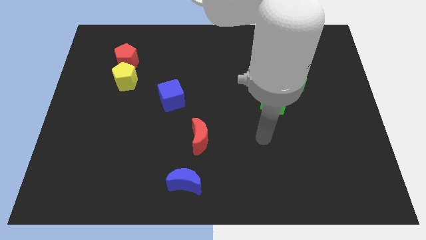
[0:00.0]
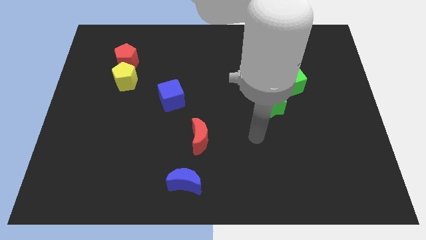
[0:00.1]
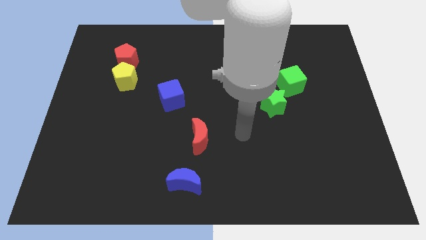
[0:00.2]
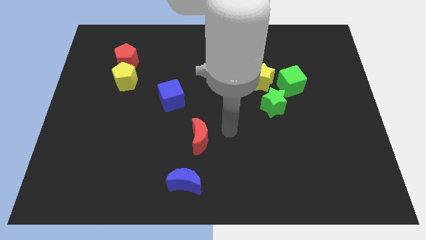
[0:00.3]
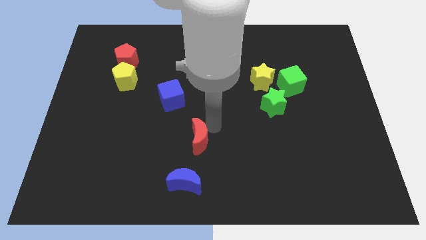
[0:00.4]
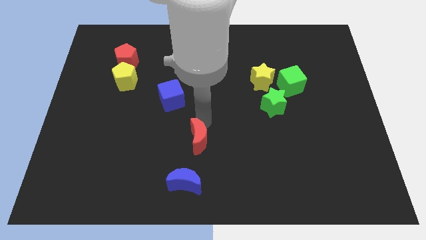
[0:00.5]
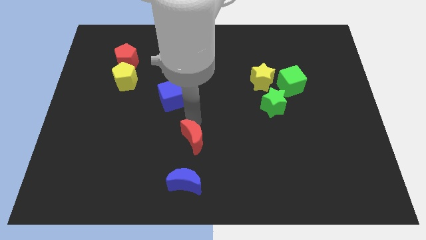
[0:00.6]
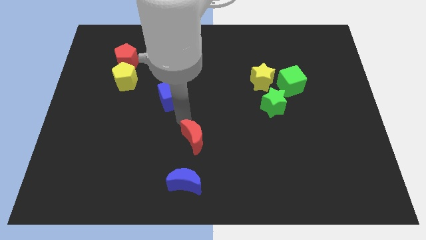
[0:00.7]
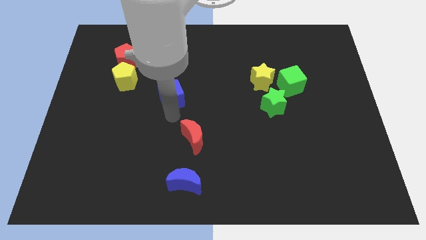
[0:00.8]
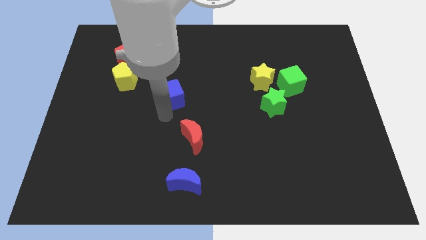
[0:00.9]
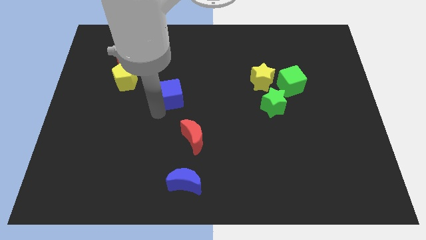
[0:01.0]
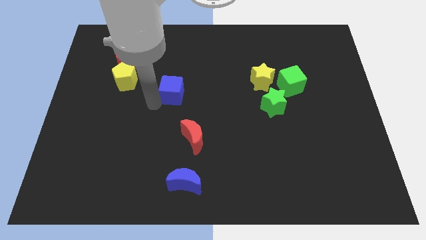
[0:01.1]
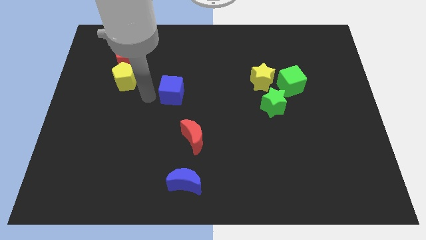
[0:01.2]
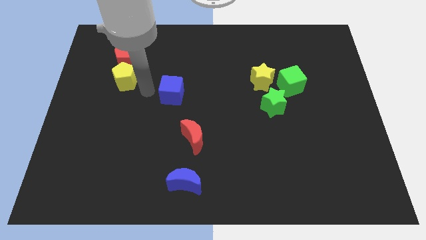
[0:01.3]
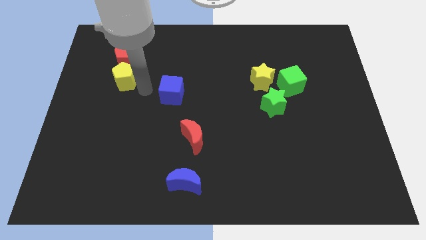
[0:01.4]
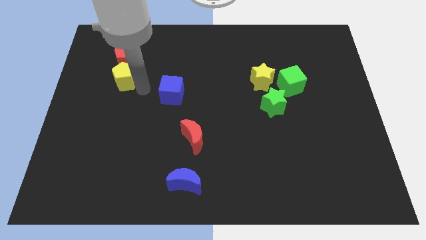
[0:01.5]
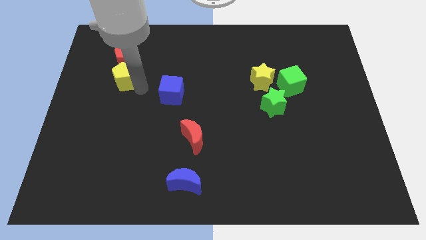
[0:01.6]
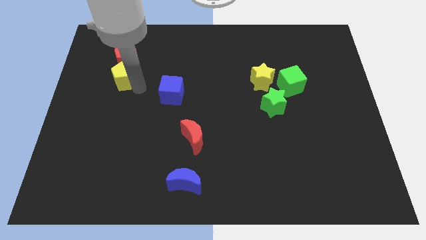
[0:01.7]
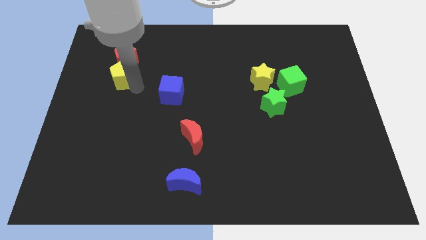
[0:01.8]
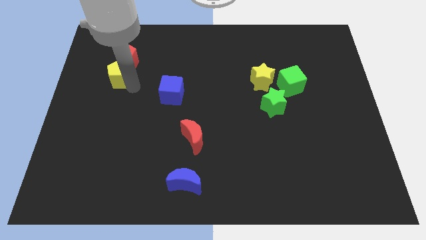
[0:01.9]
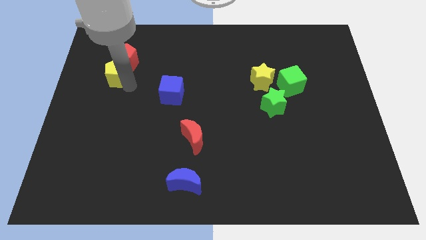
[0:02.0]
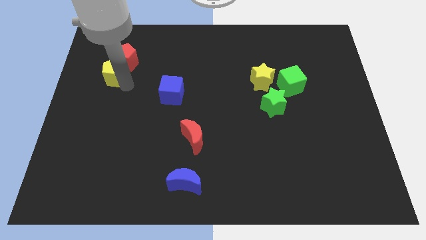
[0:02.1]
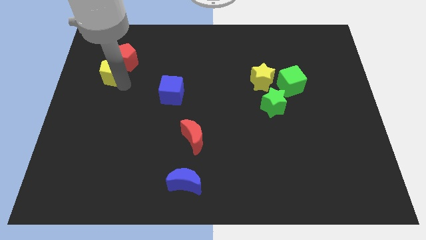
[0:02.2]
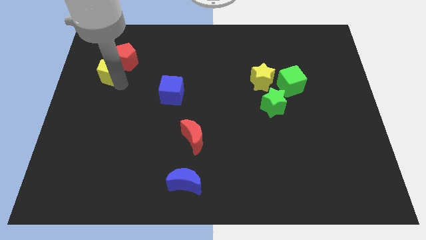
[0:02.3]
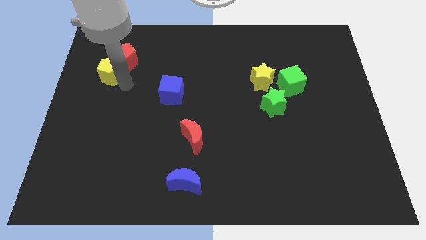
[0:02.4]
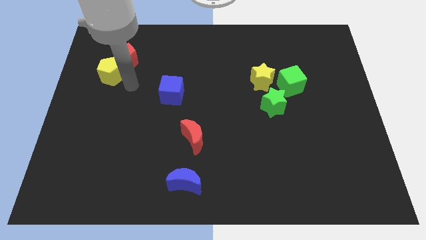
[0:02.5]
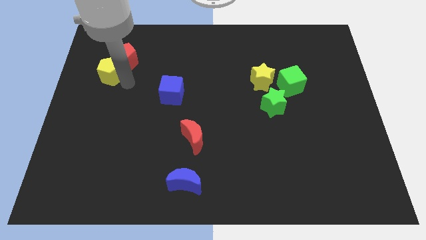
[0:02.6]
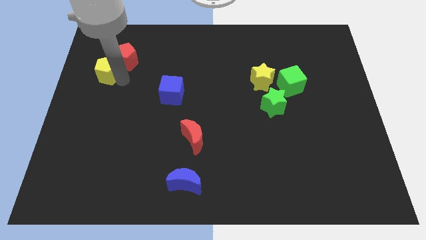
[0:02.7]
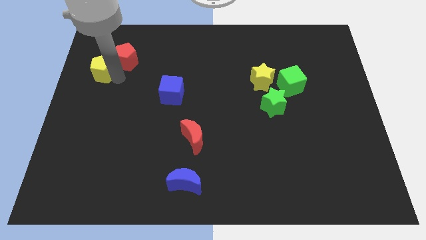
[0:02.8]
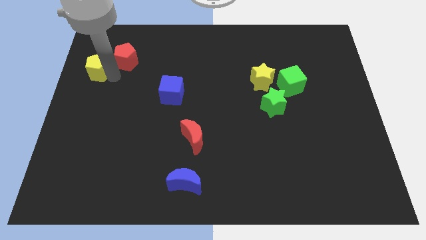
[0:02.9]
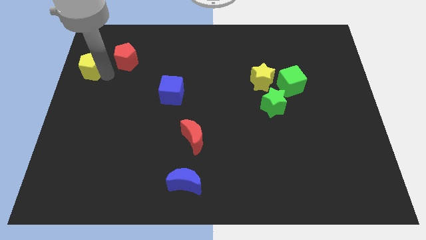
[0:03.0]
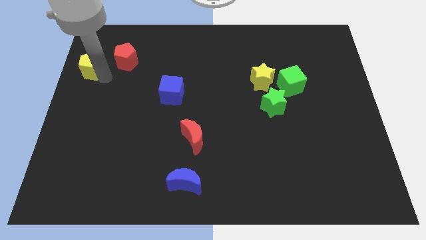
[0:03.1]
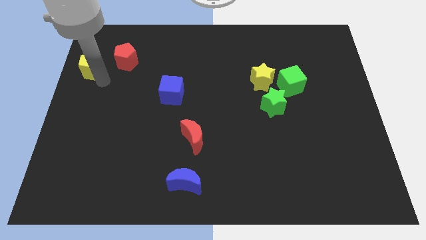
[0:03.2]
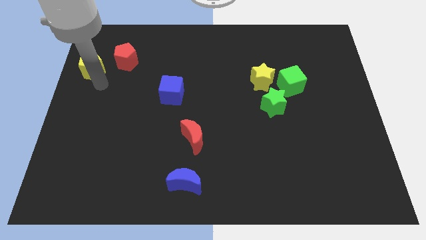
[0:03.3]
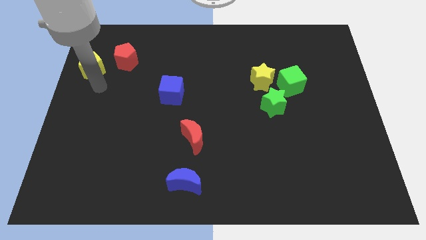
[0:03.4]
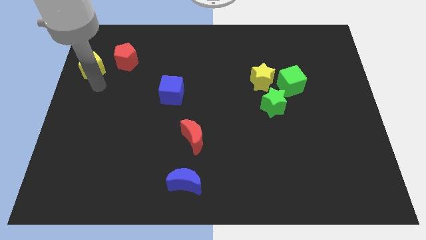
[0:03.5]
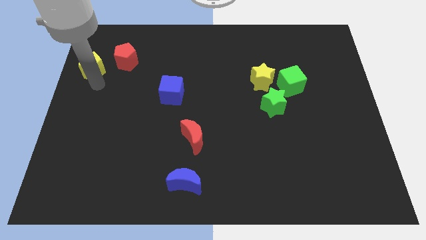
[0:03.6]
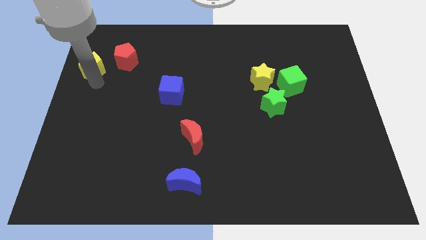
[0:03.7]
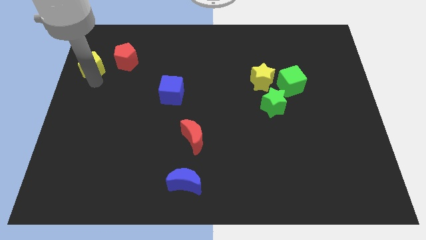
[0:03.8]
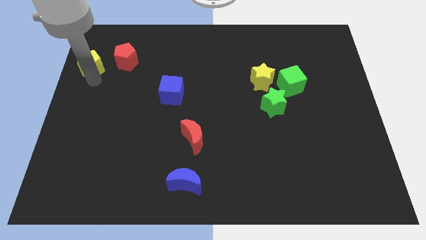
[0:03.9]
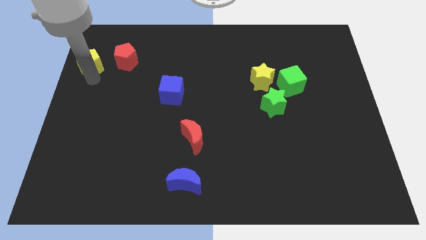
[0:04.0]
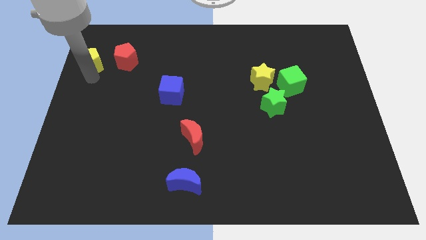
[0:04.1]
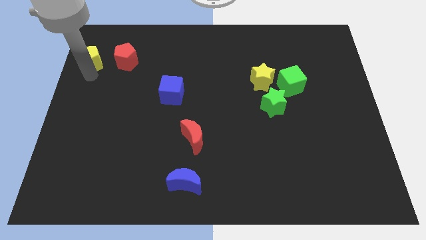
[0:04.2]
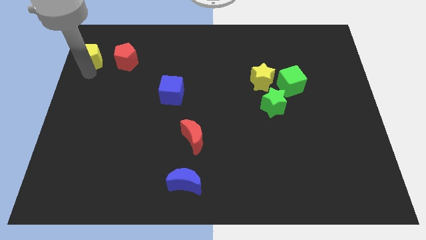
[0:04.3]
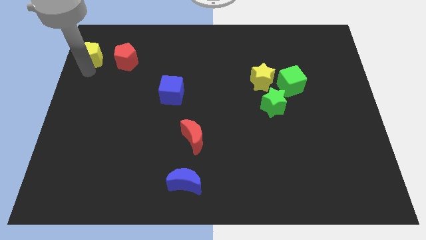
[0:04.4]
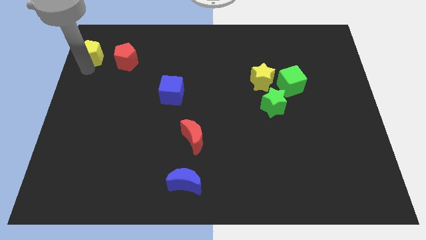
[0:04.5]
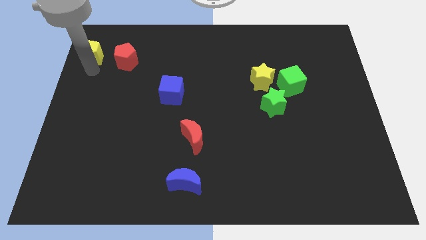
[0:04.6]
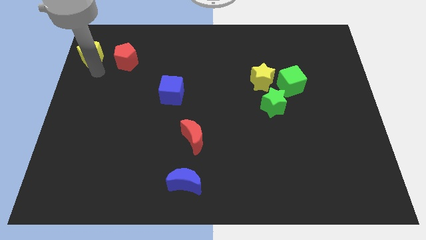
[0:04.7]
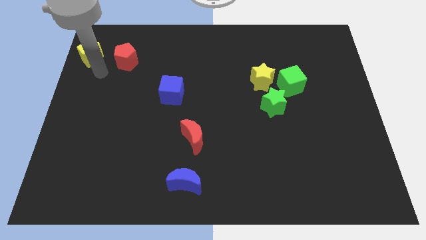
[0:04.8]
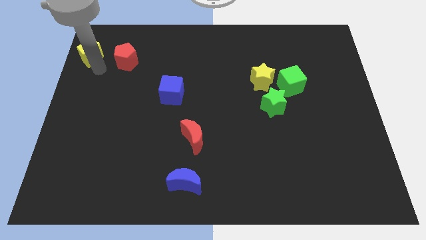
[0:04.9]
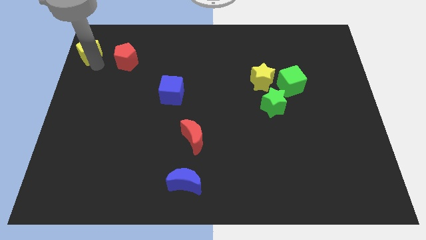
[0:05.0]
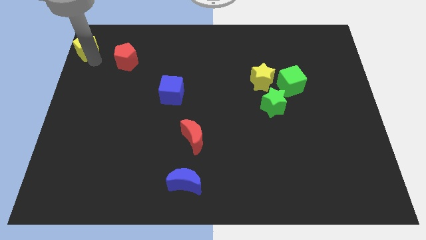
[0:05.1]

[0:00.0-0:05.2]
put the yellow pentagon to the top left corner

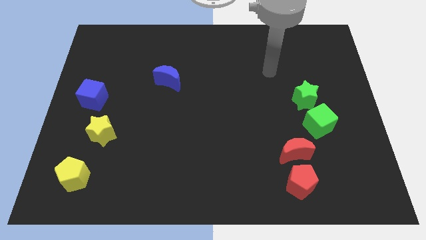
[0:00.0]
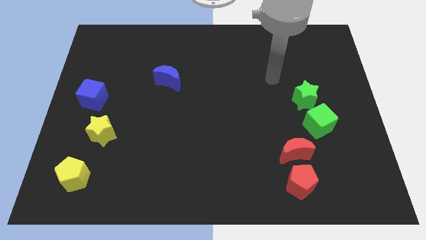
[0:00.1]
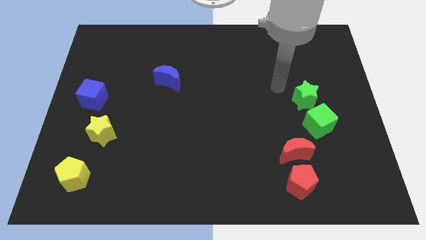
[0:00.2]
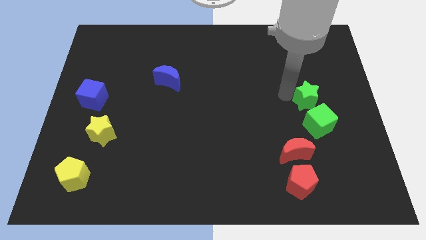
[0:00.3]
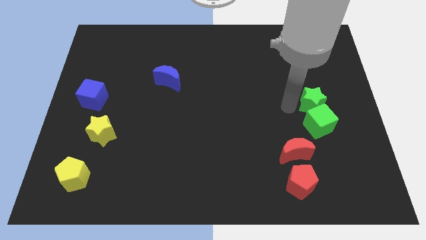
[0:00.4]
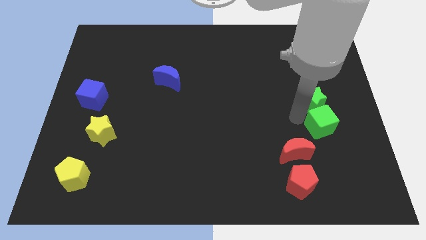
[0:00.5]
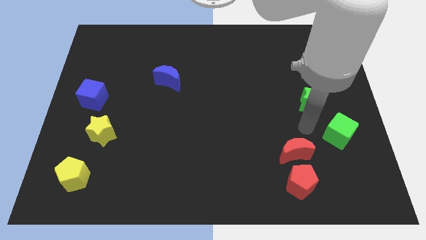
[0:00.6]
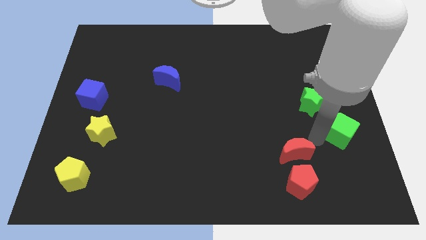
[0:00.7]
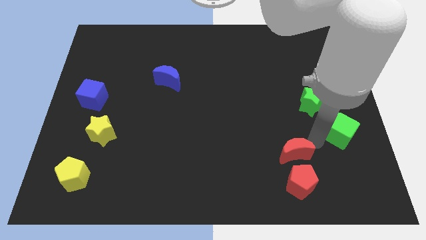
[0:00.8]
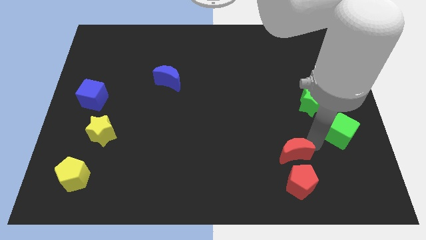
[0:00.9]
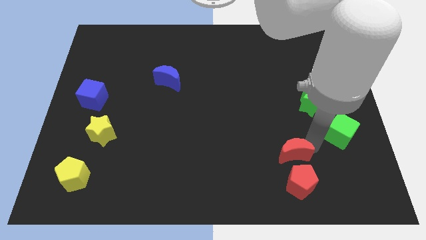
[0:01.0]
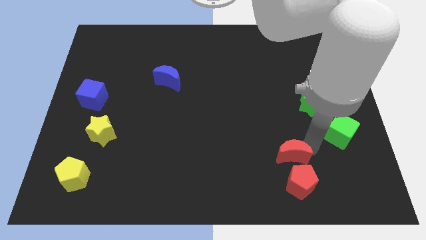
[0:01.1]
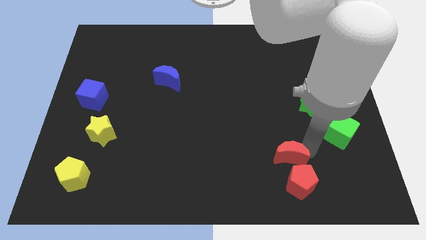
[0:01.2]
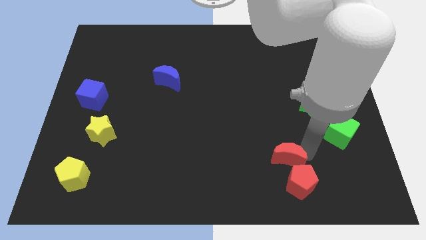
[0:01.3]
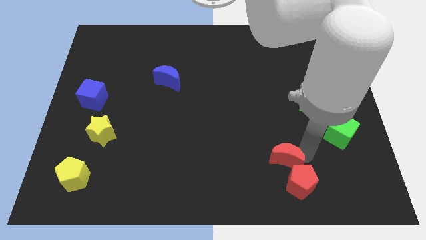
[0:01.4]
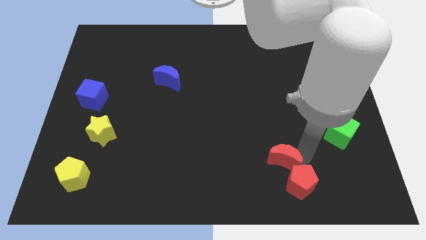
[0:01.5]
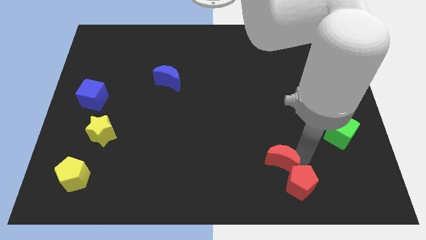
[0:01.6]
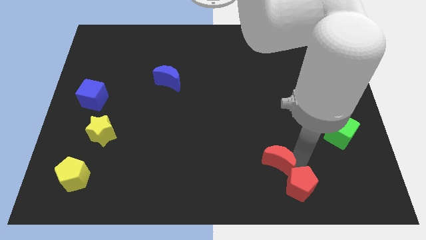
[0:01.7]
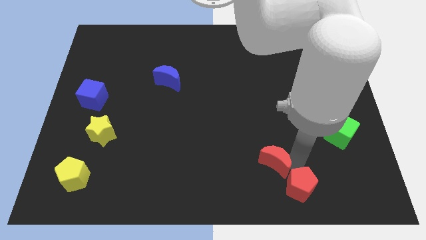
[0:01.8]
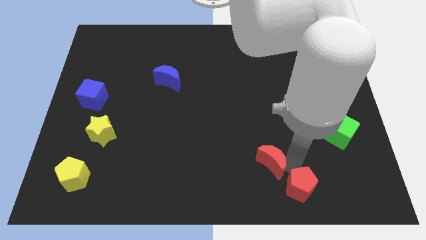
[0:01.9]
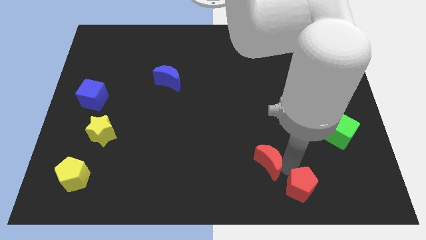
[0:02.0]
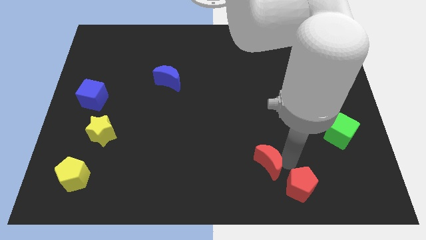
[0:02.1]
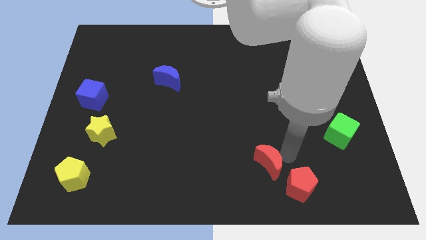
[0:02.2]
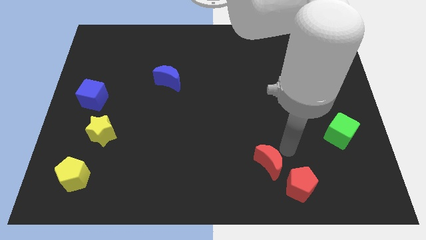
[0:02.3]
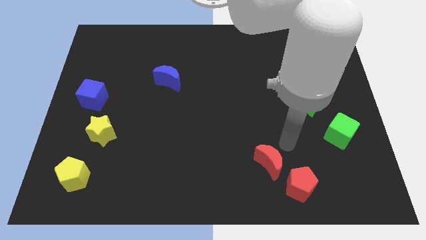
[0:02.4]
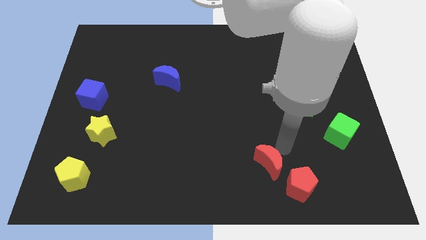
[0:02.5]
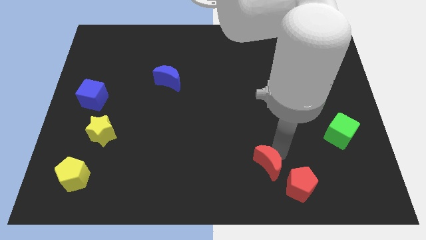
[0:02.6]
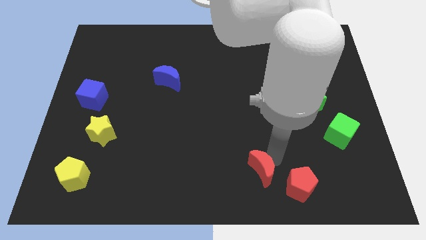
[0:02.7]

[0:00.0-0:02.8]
move the red moon to the bottom side
